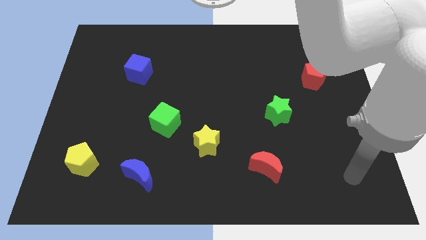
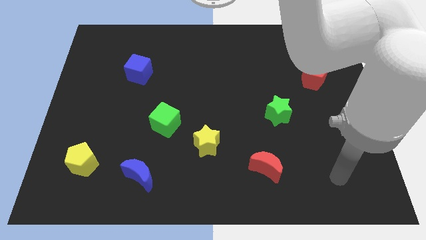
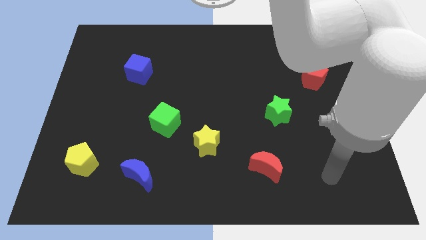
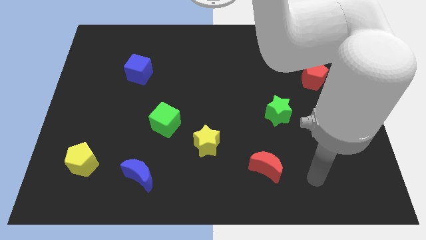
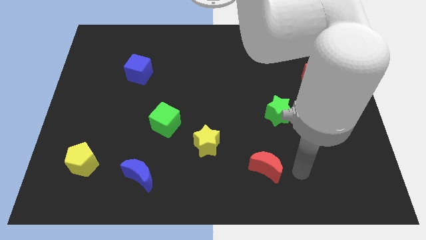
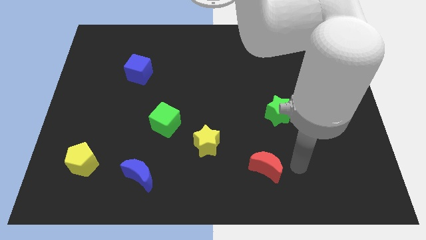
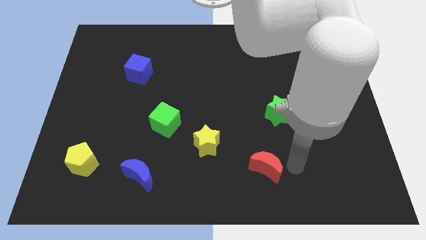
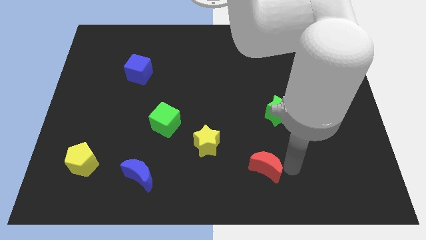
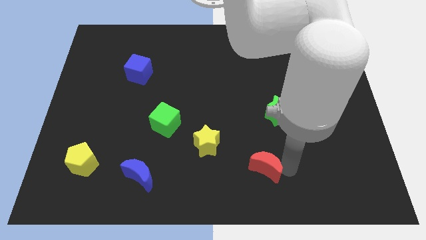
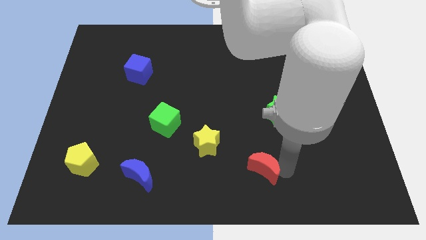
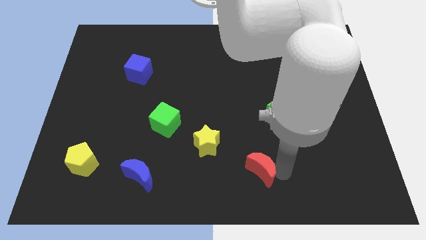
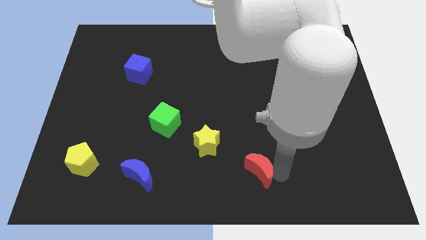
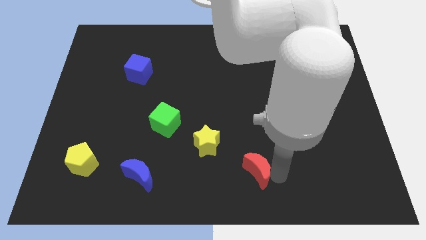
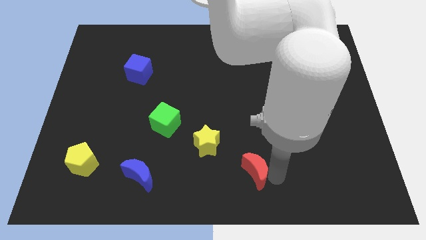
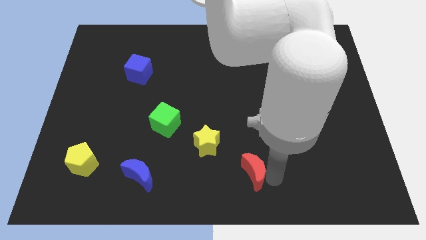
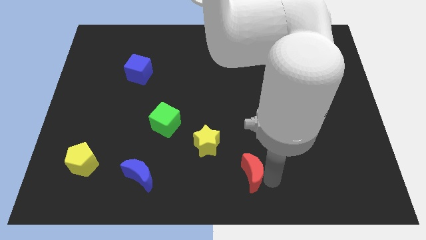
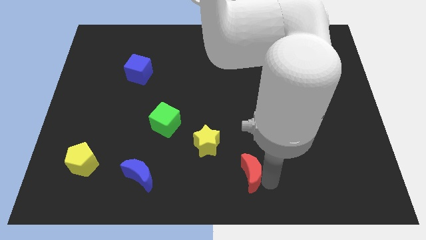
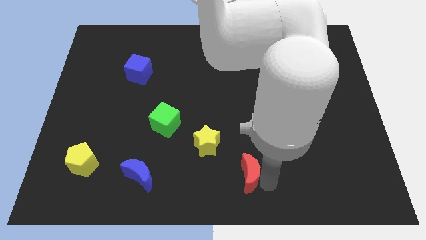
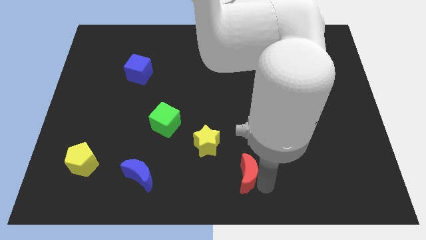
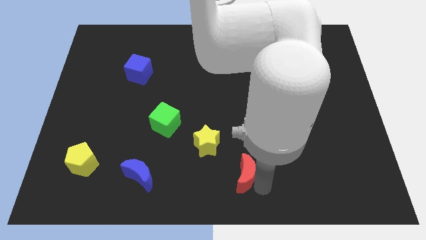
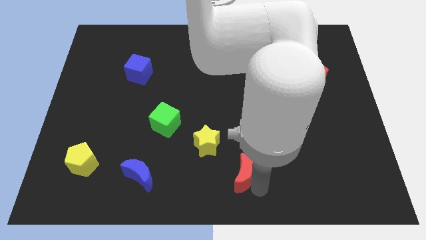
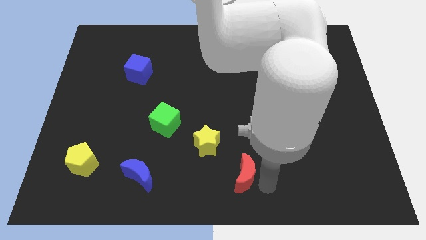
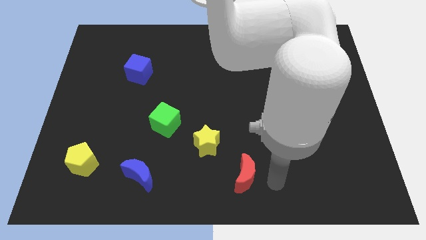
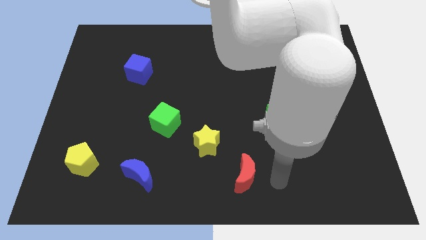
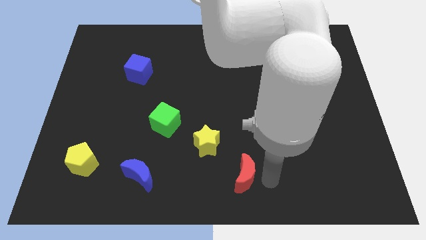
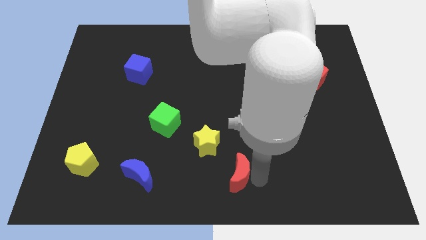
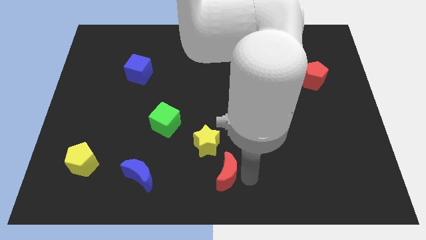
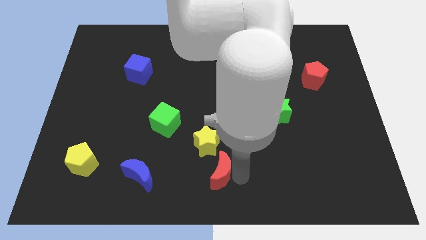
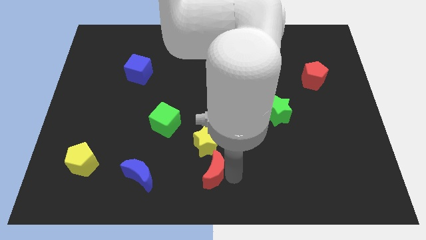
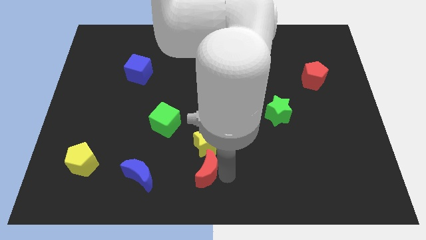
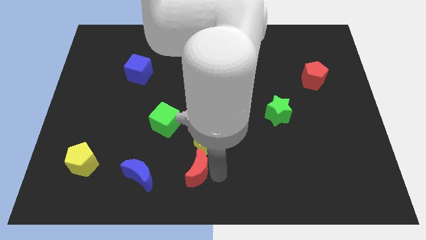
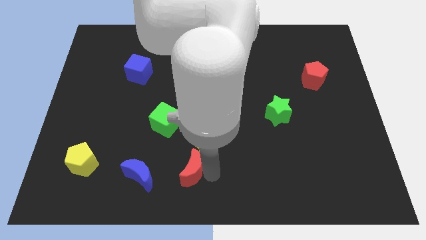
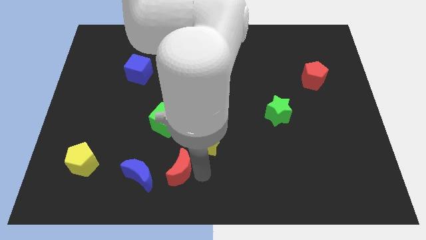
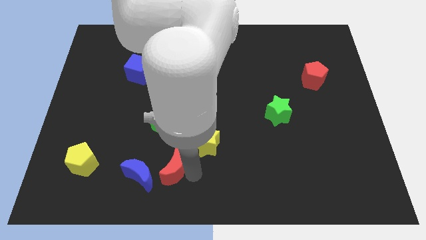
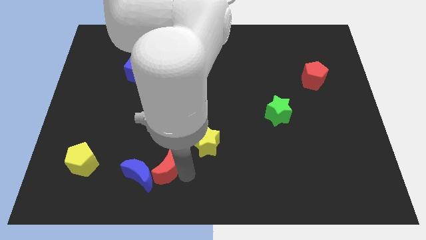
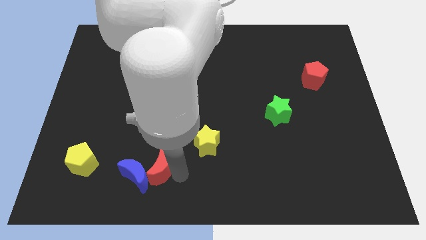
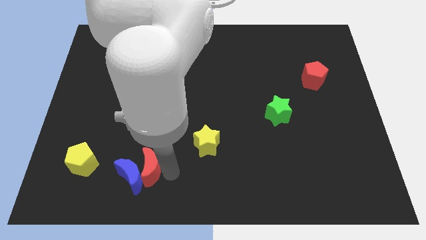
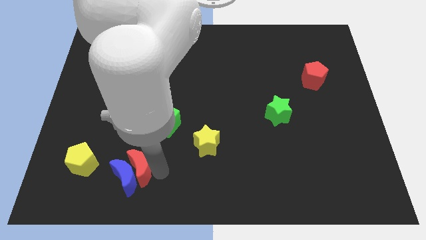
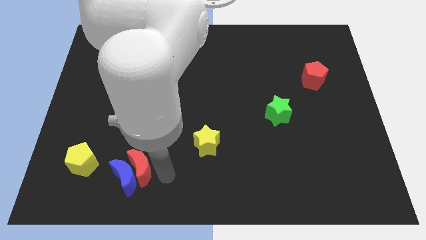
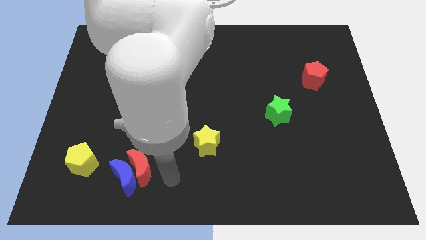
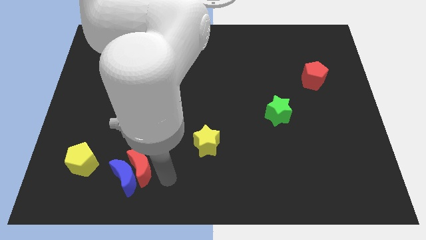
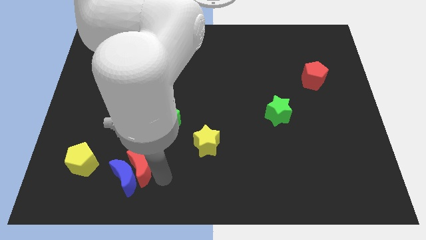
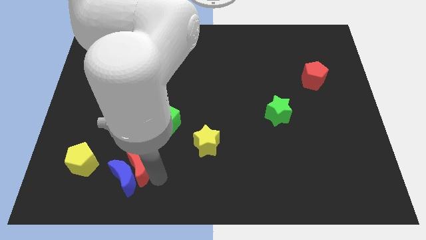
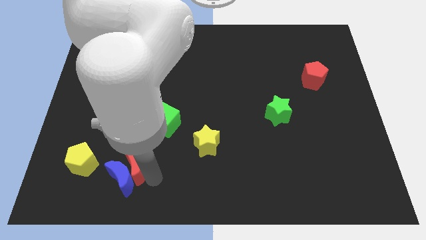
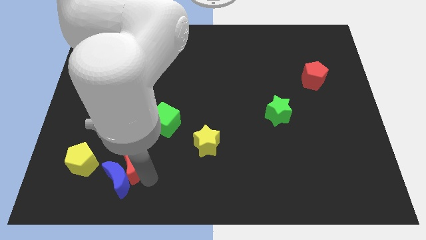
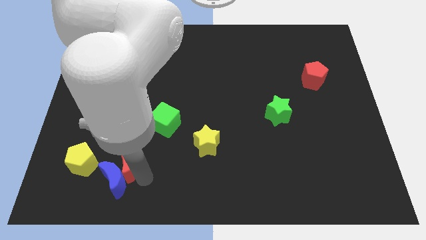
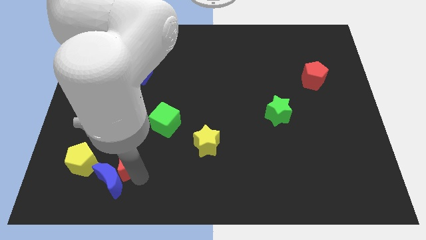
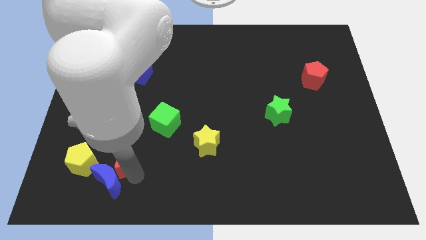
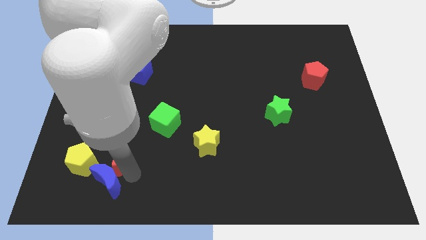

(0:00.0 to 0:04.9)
move the red moon diagonally up and to the left of the blue moon

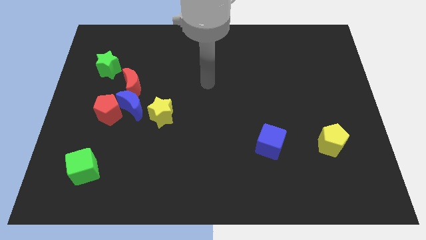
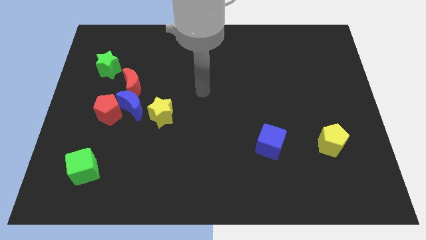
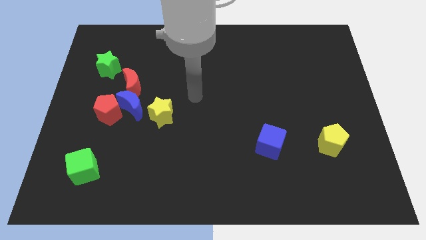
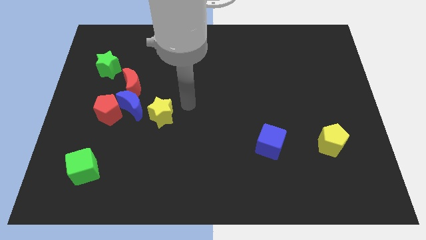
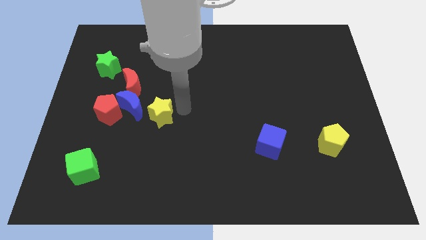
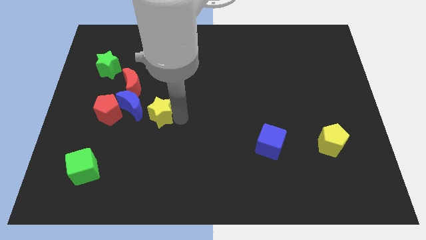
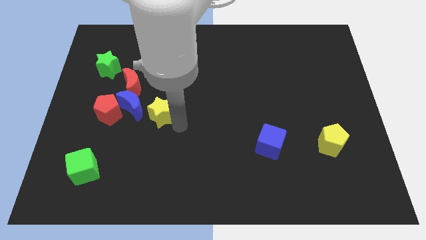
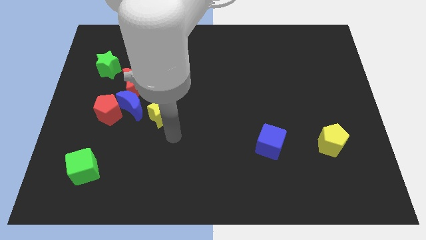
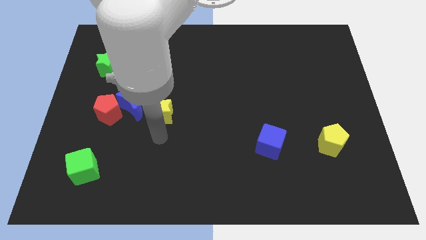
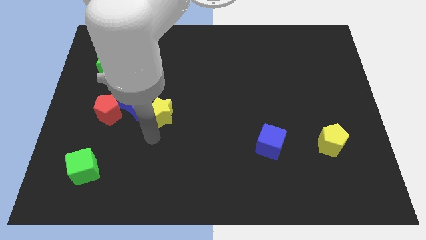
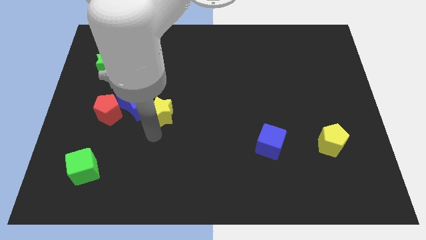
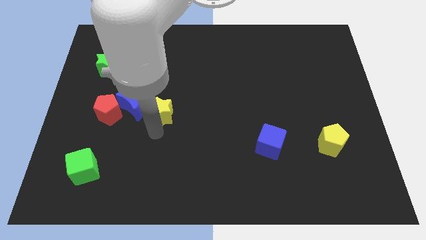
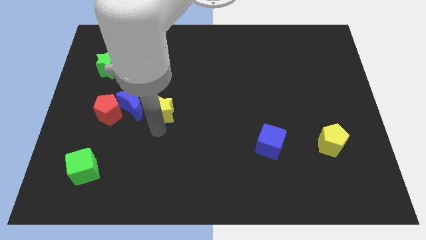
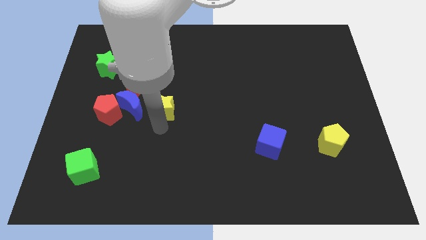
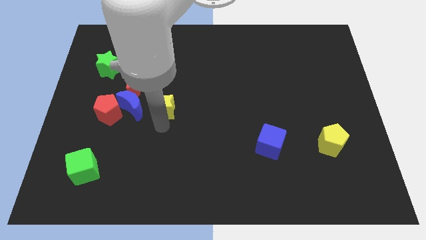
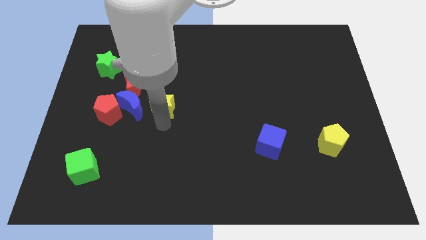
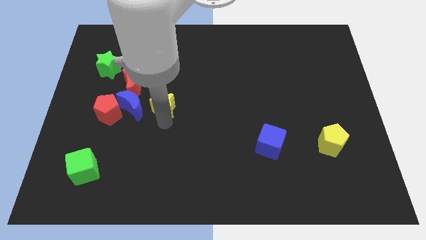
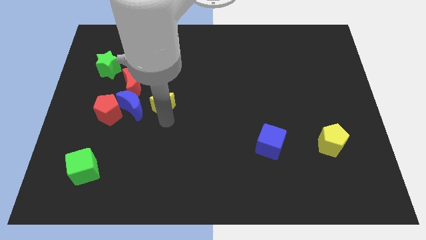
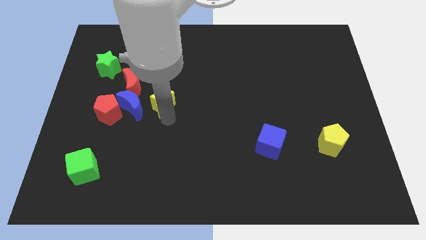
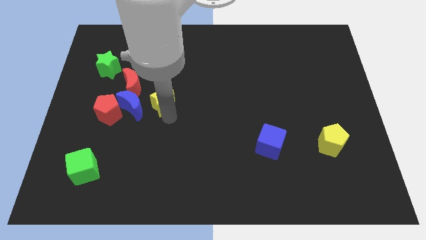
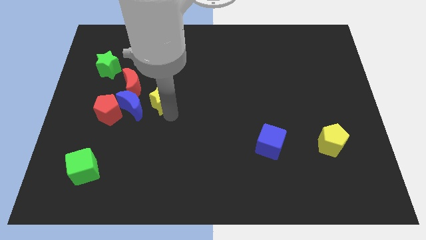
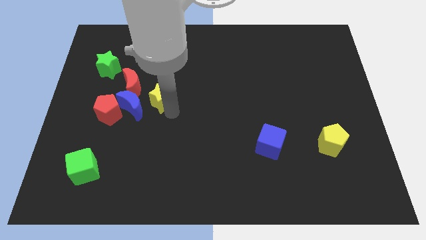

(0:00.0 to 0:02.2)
move the yellow star right of the red moon
